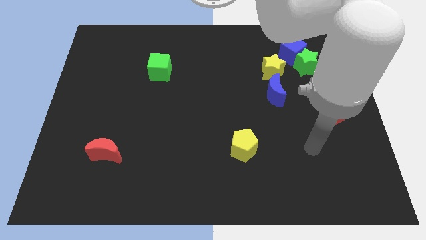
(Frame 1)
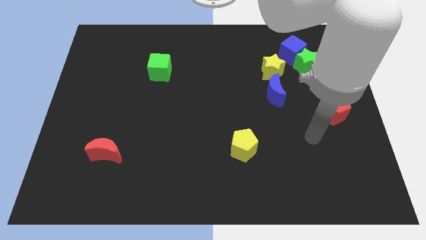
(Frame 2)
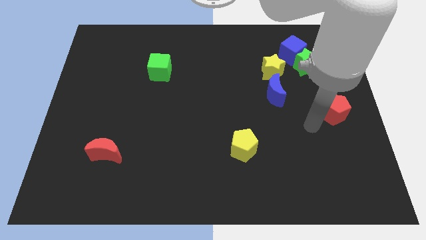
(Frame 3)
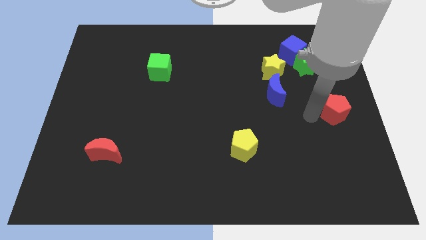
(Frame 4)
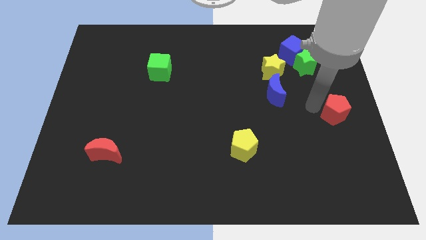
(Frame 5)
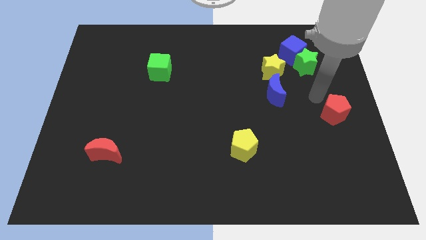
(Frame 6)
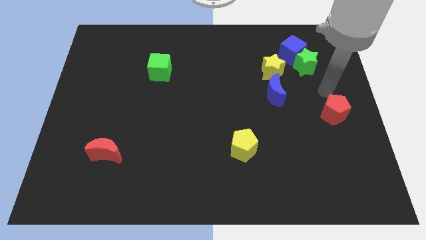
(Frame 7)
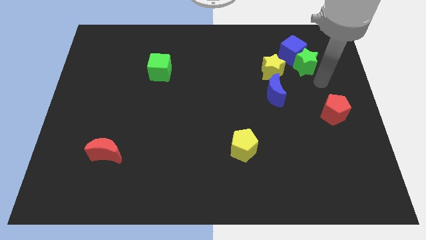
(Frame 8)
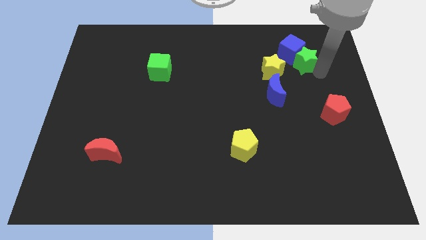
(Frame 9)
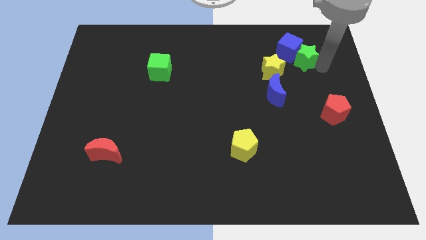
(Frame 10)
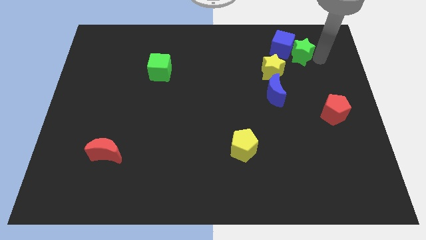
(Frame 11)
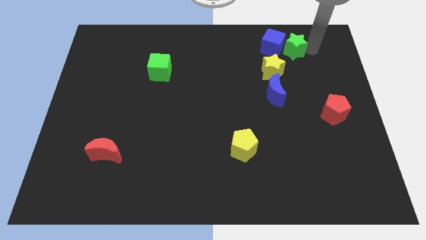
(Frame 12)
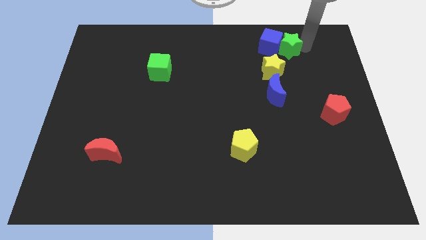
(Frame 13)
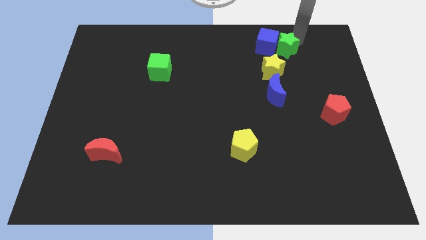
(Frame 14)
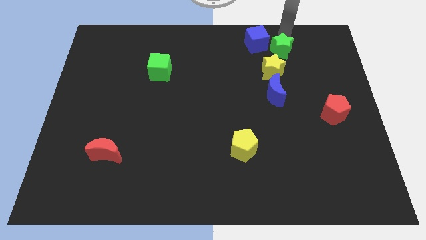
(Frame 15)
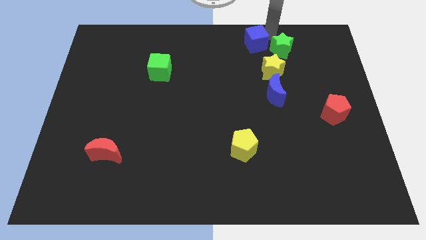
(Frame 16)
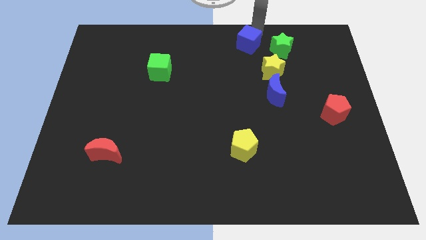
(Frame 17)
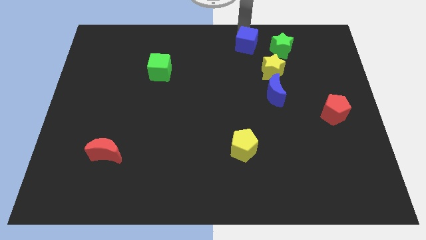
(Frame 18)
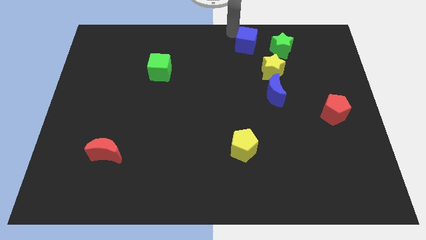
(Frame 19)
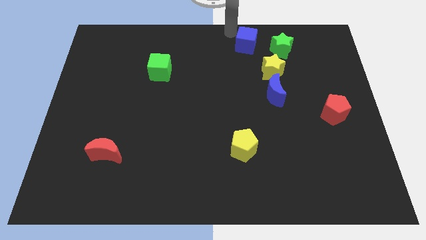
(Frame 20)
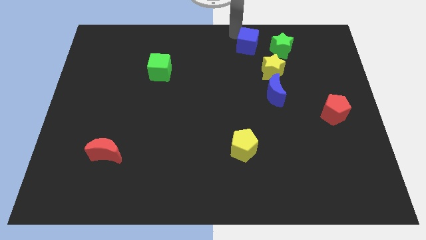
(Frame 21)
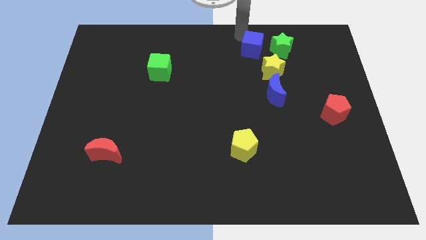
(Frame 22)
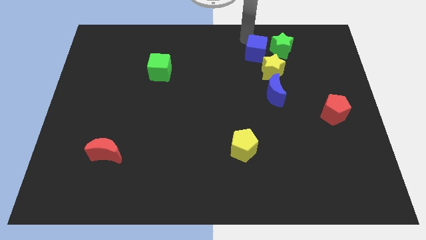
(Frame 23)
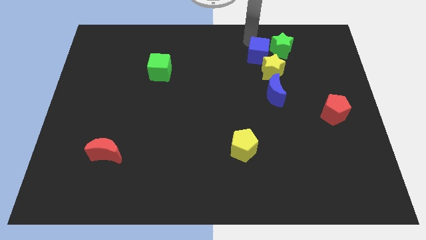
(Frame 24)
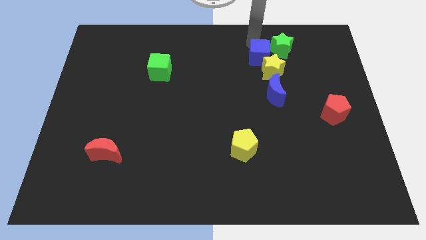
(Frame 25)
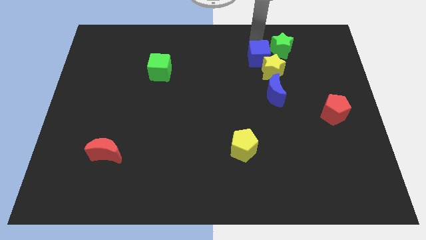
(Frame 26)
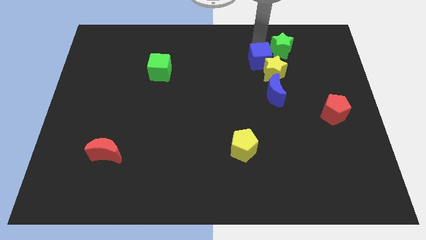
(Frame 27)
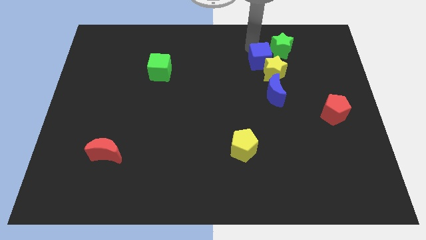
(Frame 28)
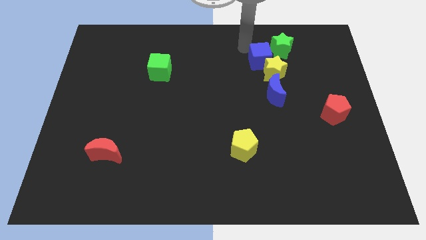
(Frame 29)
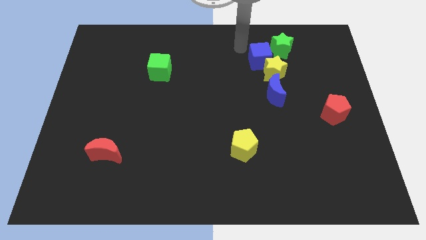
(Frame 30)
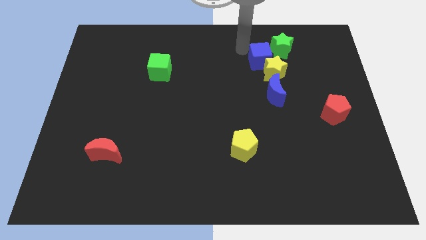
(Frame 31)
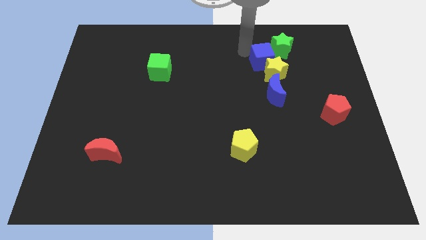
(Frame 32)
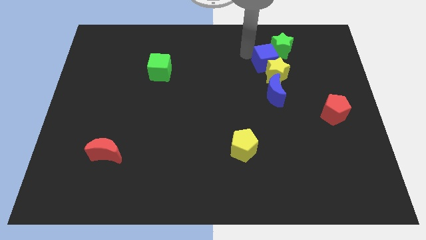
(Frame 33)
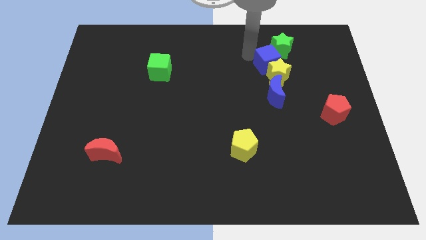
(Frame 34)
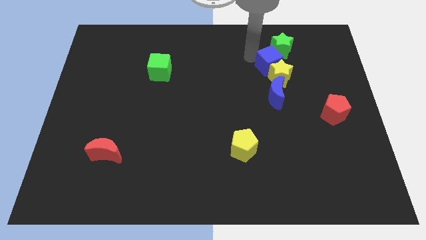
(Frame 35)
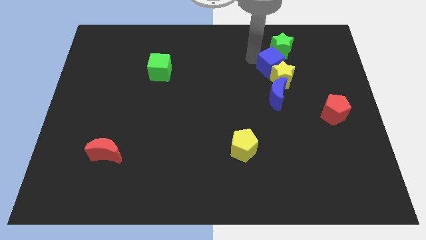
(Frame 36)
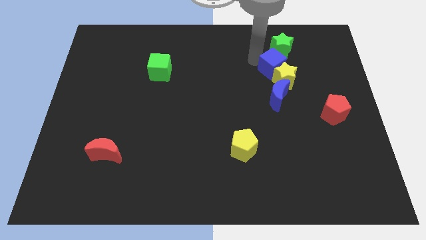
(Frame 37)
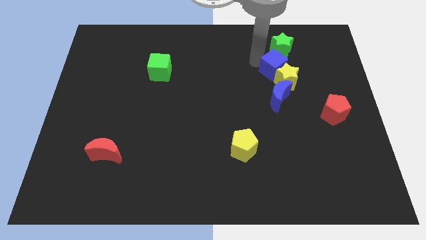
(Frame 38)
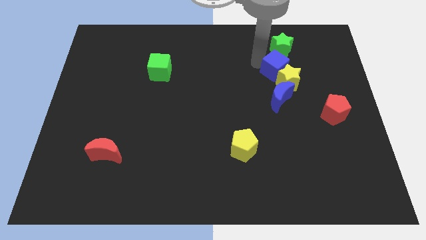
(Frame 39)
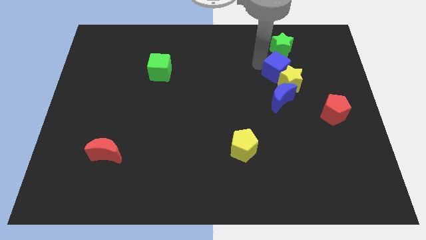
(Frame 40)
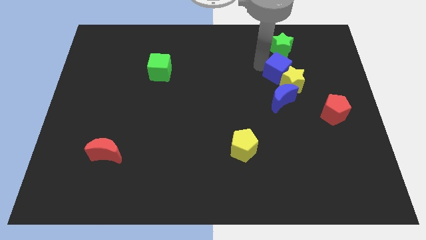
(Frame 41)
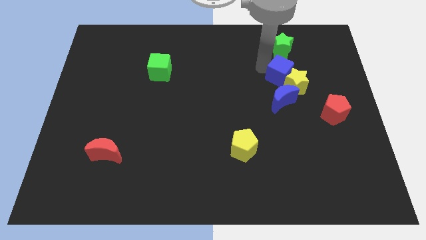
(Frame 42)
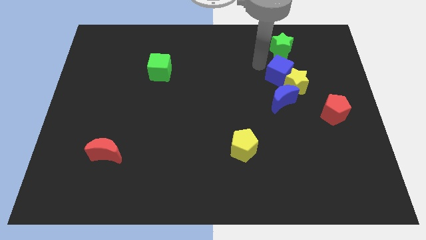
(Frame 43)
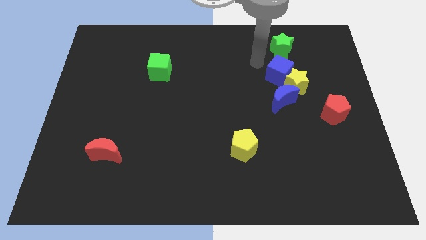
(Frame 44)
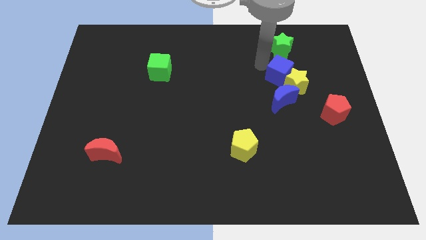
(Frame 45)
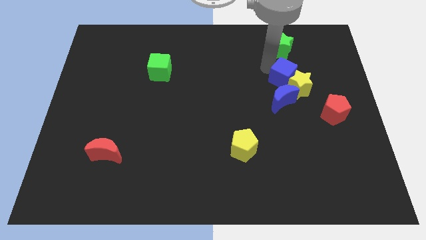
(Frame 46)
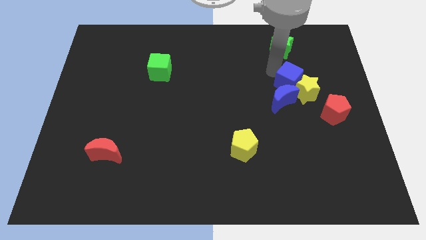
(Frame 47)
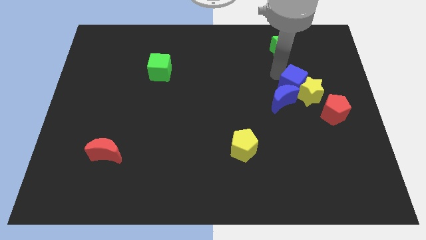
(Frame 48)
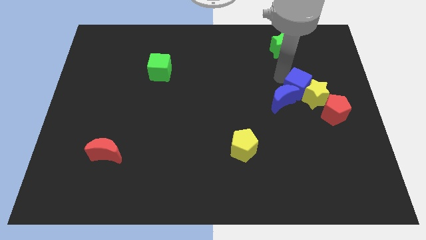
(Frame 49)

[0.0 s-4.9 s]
slide the blue cube just right of the blue moon

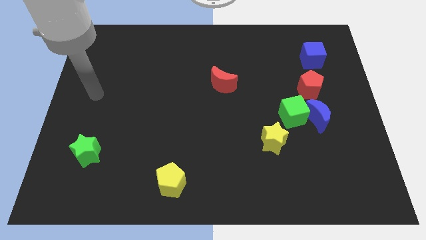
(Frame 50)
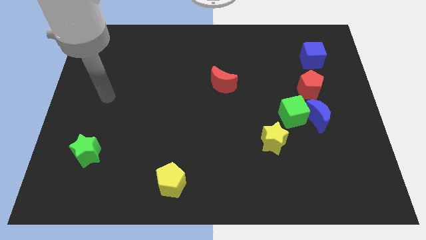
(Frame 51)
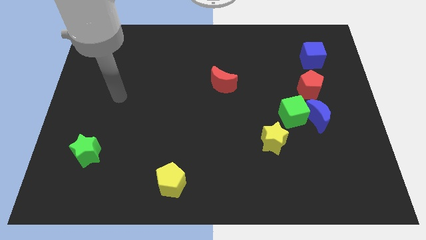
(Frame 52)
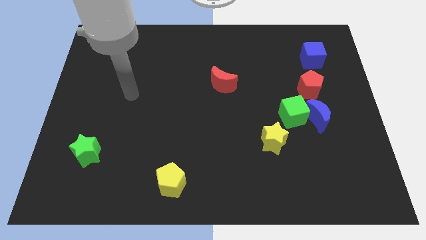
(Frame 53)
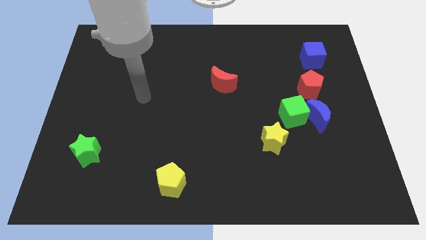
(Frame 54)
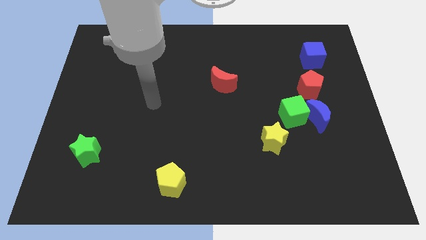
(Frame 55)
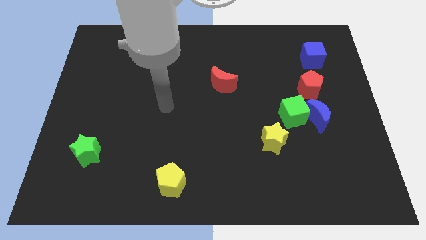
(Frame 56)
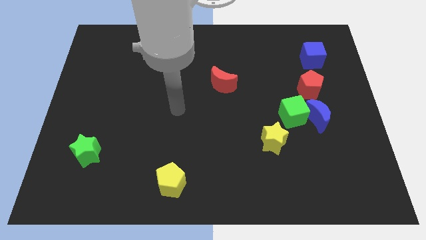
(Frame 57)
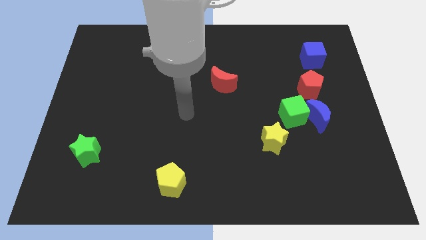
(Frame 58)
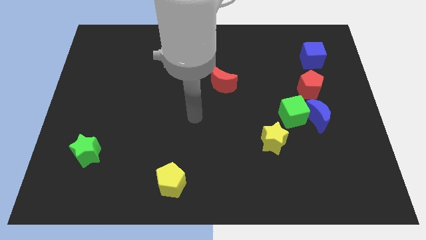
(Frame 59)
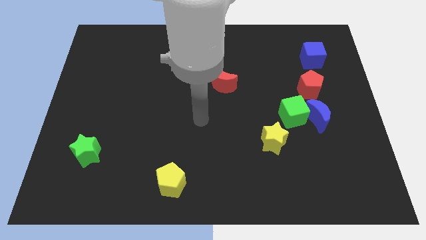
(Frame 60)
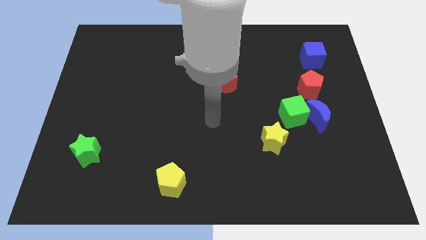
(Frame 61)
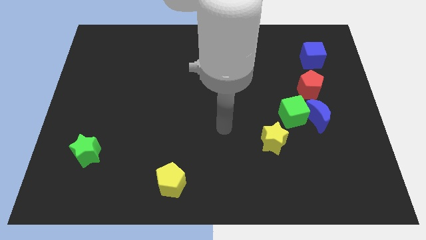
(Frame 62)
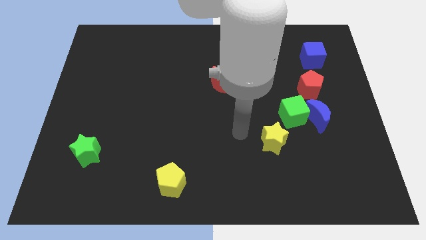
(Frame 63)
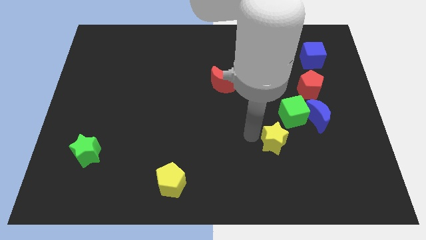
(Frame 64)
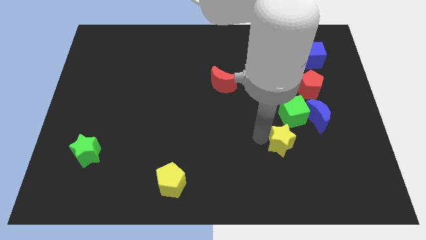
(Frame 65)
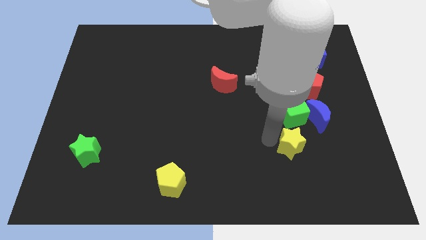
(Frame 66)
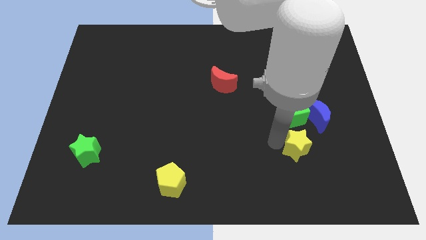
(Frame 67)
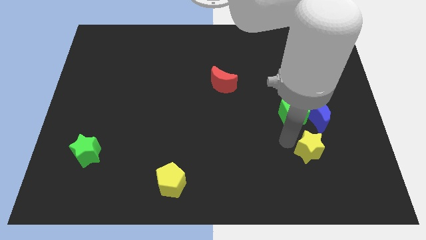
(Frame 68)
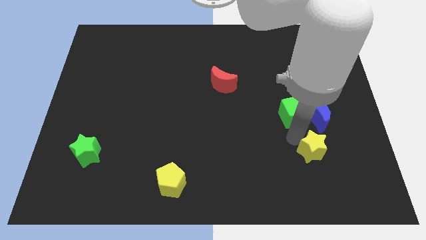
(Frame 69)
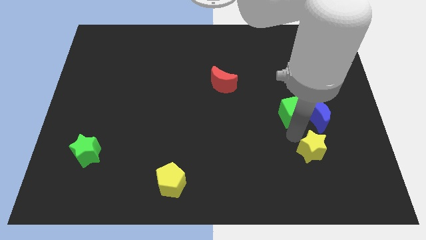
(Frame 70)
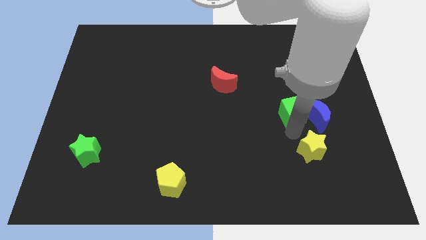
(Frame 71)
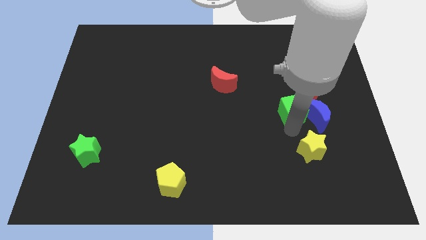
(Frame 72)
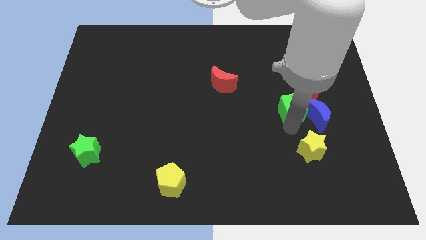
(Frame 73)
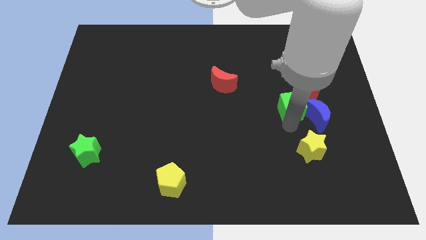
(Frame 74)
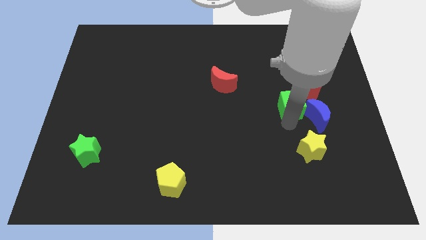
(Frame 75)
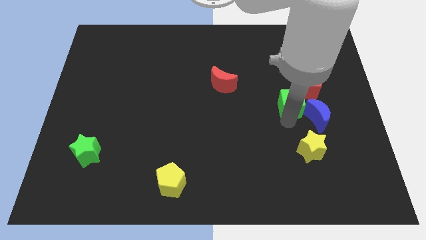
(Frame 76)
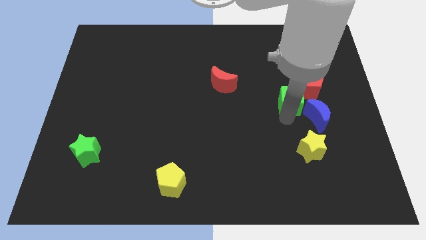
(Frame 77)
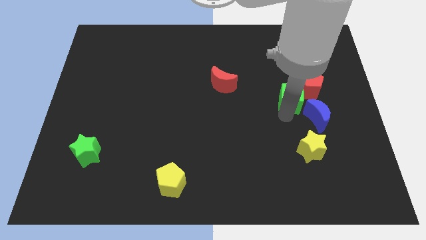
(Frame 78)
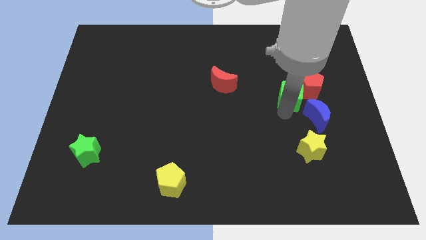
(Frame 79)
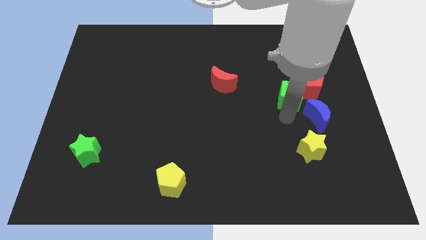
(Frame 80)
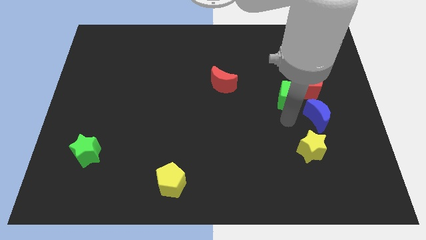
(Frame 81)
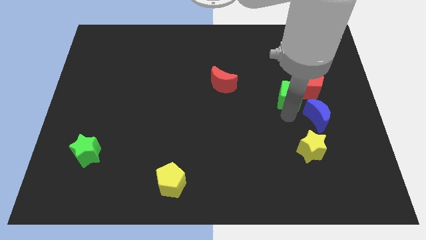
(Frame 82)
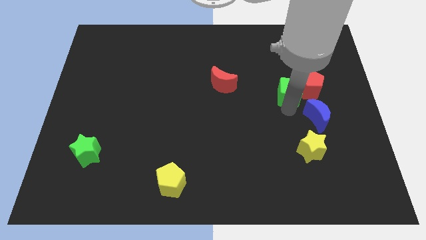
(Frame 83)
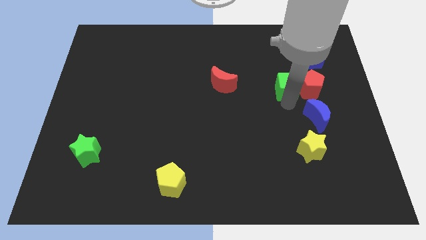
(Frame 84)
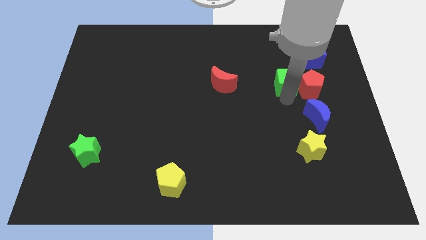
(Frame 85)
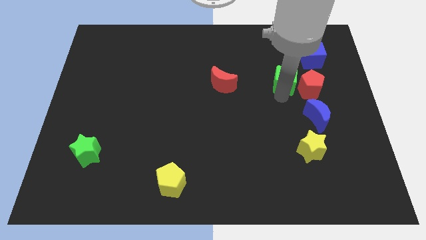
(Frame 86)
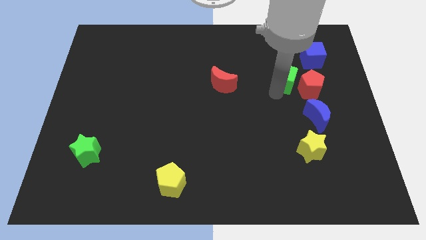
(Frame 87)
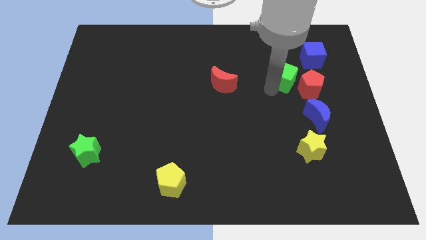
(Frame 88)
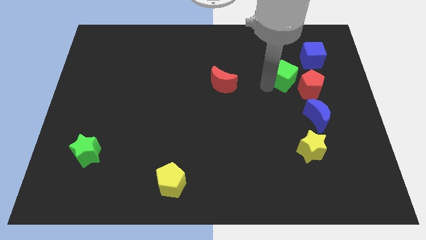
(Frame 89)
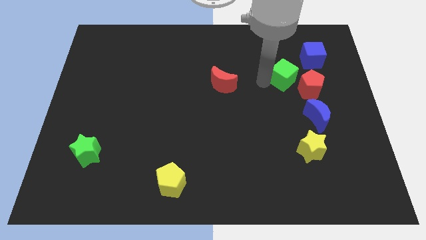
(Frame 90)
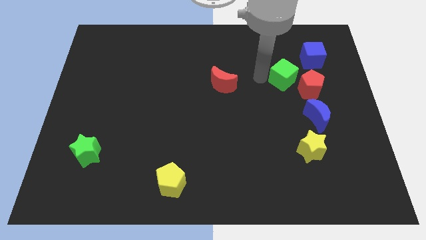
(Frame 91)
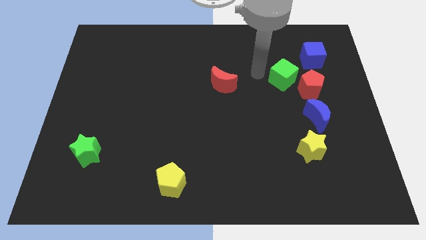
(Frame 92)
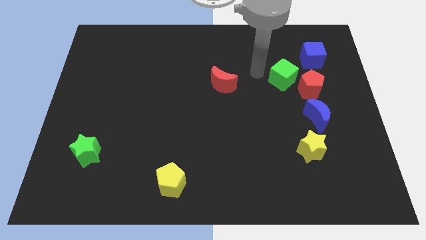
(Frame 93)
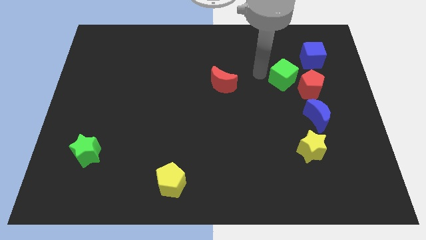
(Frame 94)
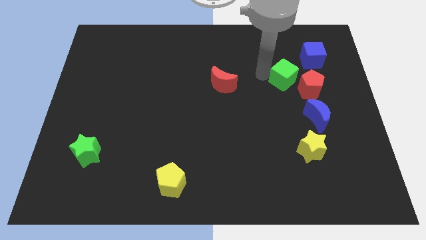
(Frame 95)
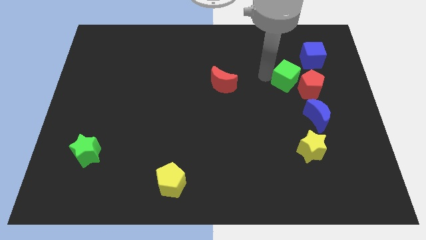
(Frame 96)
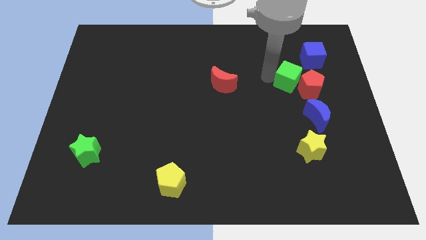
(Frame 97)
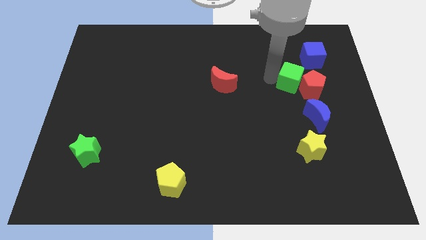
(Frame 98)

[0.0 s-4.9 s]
put the green cube above the blue moon
